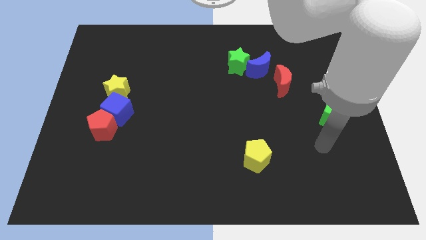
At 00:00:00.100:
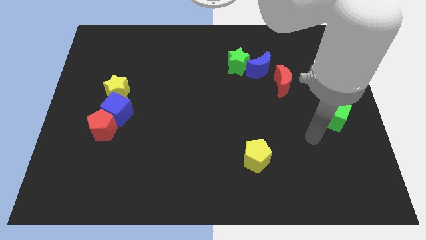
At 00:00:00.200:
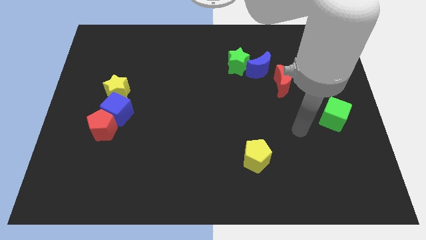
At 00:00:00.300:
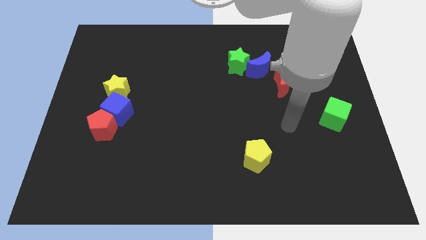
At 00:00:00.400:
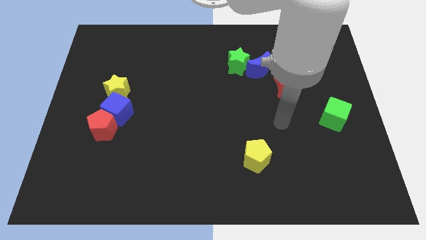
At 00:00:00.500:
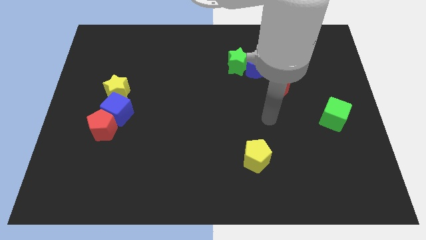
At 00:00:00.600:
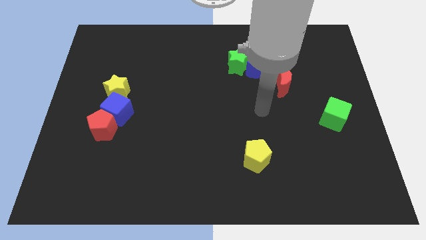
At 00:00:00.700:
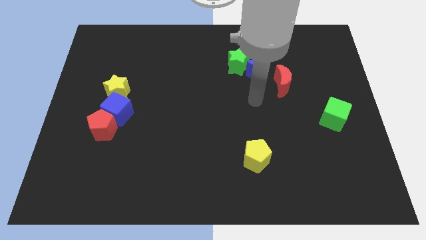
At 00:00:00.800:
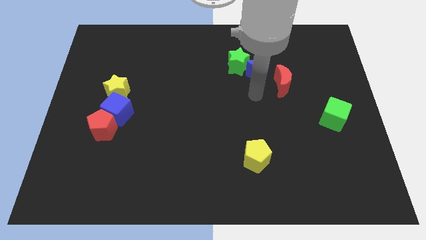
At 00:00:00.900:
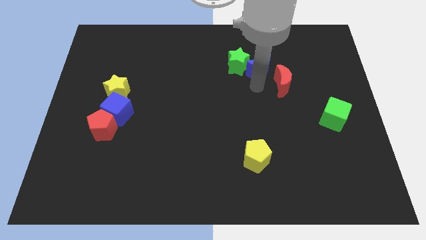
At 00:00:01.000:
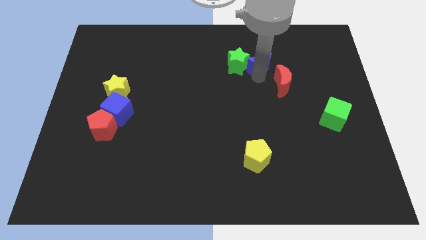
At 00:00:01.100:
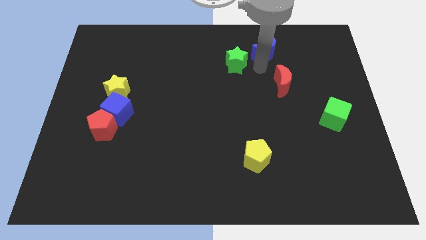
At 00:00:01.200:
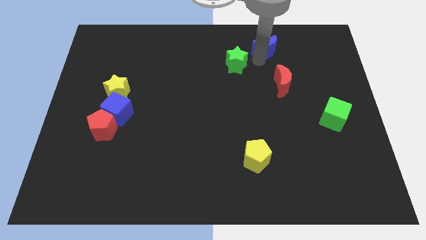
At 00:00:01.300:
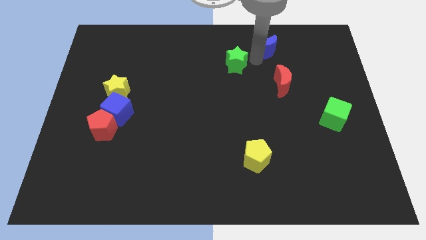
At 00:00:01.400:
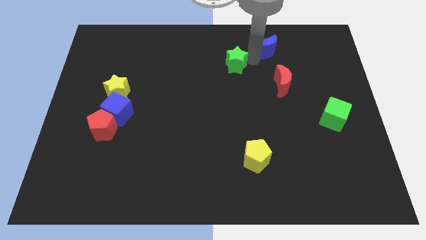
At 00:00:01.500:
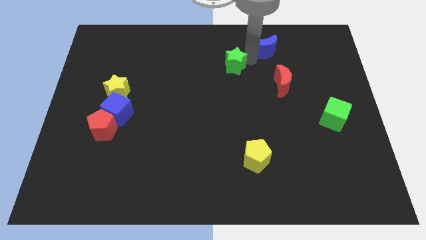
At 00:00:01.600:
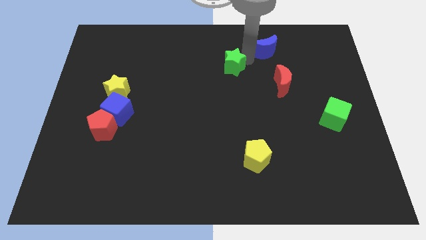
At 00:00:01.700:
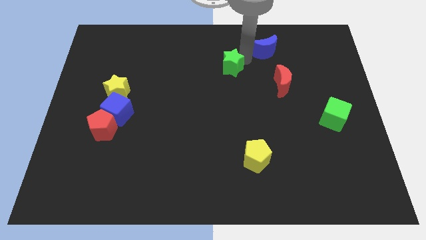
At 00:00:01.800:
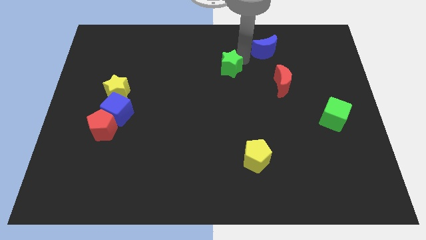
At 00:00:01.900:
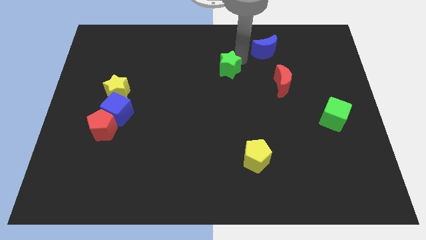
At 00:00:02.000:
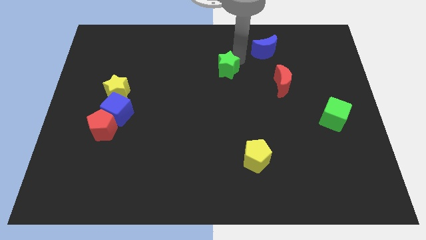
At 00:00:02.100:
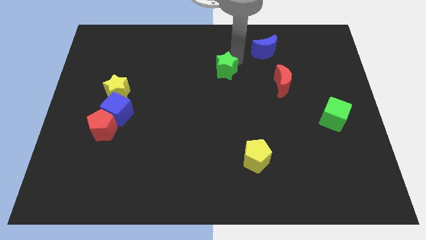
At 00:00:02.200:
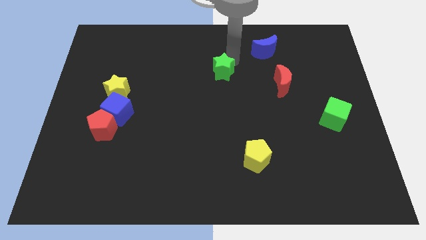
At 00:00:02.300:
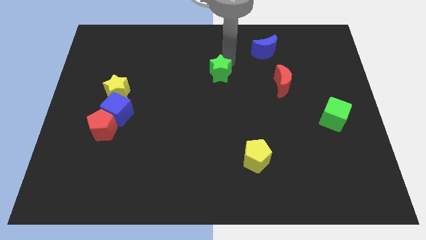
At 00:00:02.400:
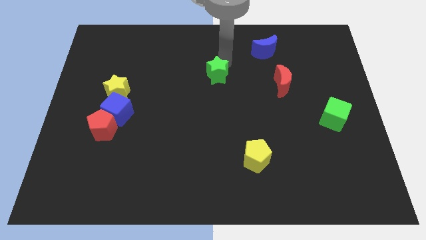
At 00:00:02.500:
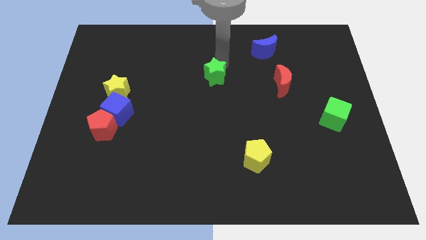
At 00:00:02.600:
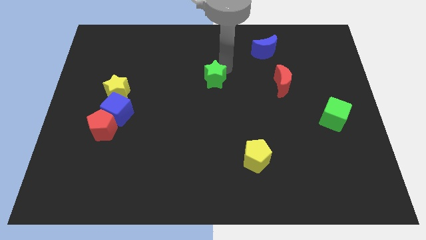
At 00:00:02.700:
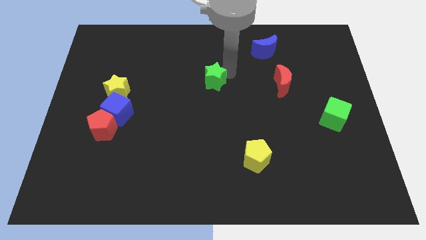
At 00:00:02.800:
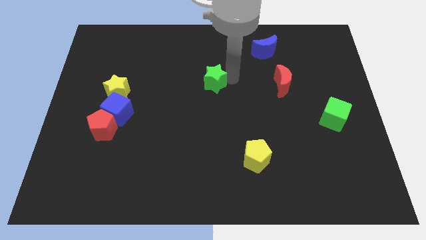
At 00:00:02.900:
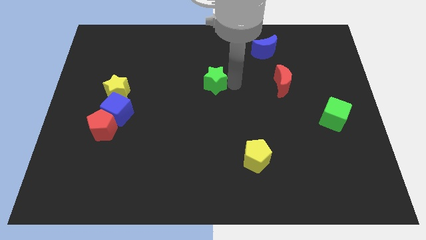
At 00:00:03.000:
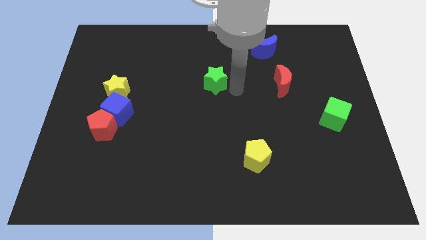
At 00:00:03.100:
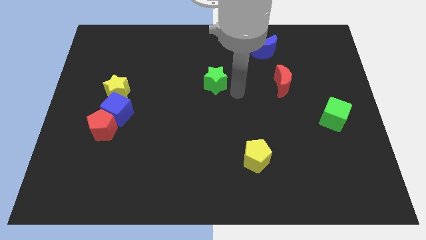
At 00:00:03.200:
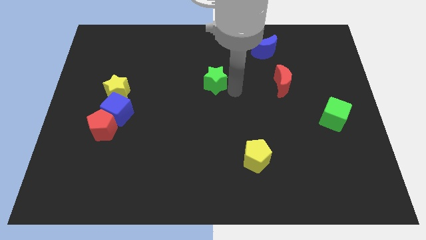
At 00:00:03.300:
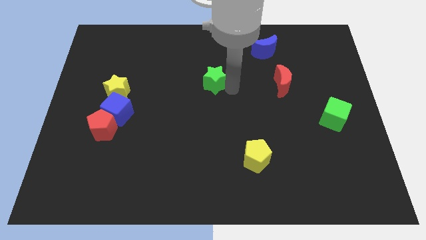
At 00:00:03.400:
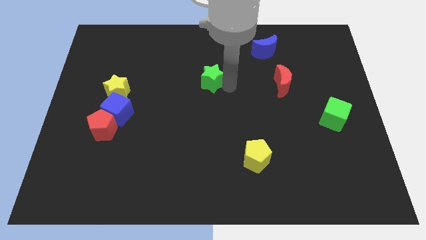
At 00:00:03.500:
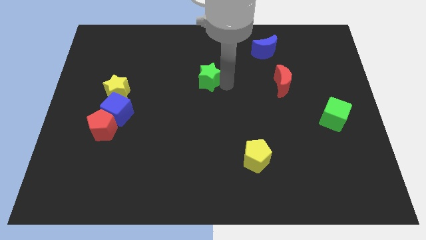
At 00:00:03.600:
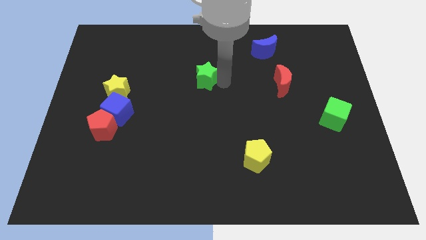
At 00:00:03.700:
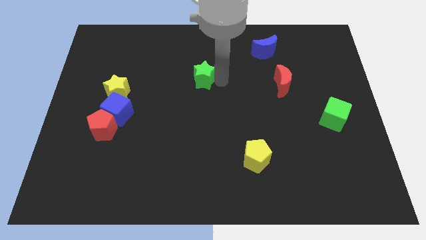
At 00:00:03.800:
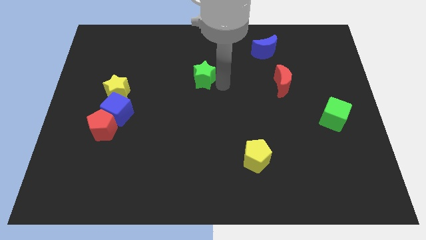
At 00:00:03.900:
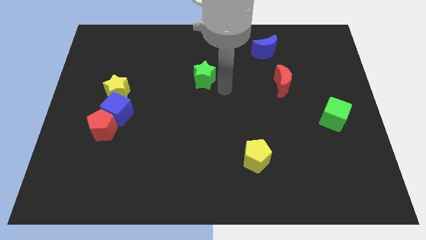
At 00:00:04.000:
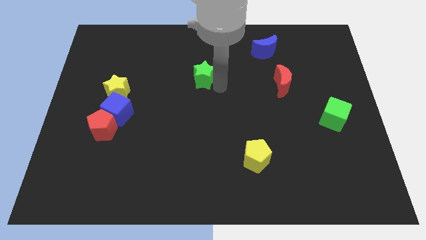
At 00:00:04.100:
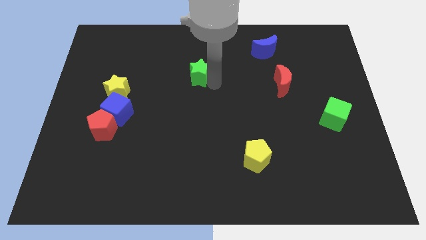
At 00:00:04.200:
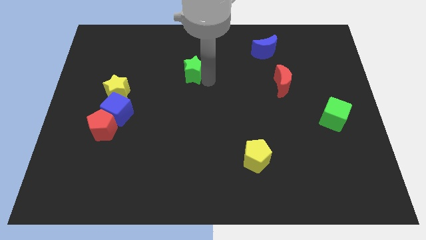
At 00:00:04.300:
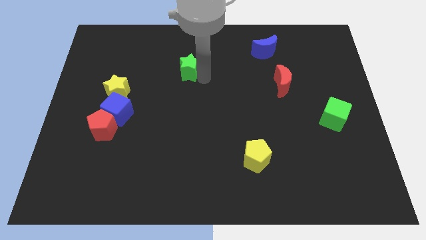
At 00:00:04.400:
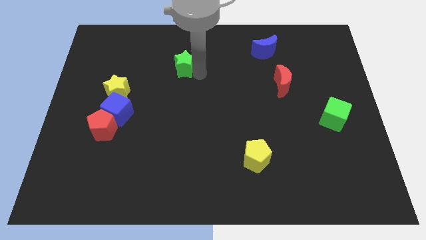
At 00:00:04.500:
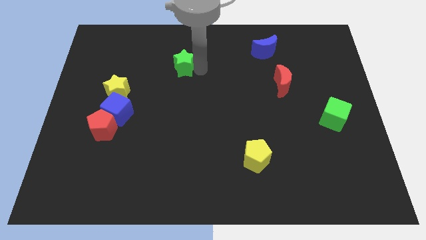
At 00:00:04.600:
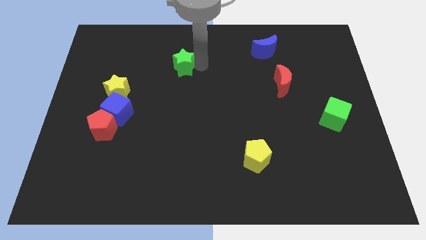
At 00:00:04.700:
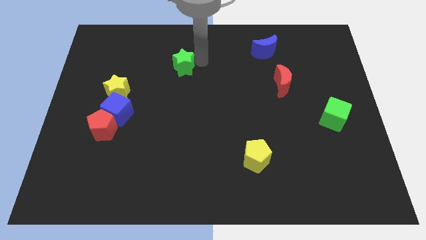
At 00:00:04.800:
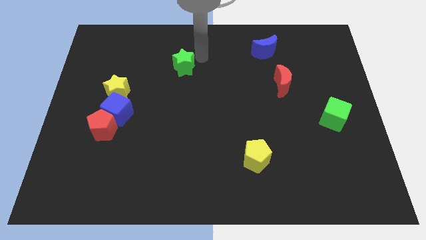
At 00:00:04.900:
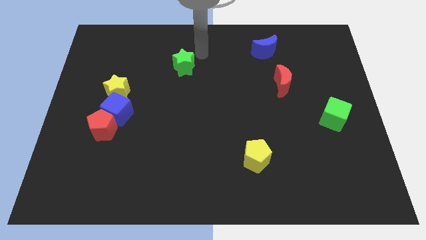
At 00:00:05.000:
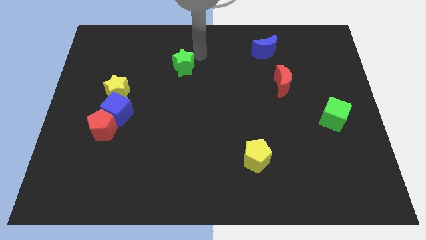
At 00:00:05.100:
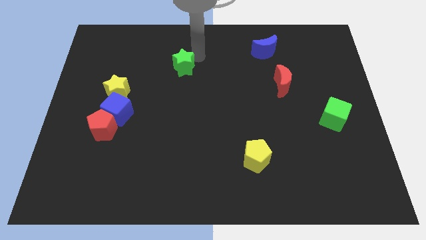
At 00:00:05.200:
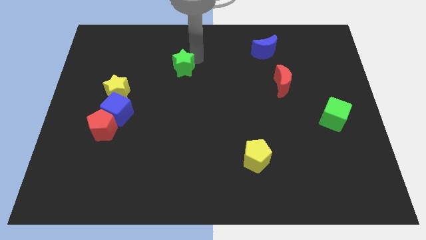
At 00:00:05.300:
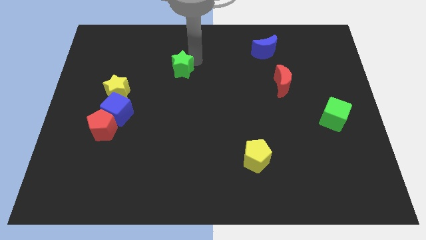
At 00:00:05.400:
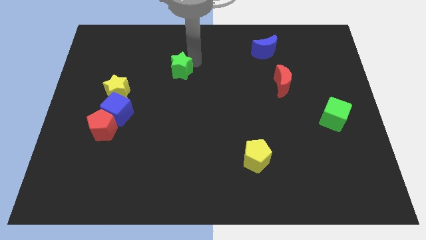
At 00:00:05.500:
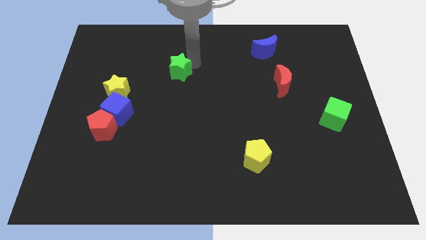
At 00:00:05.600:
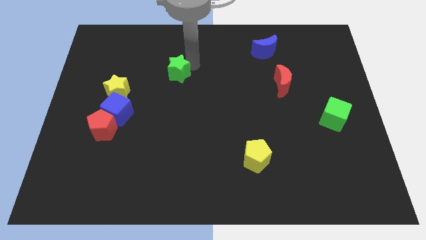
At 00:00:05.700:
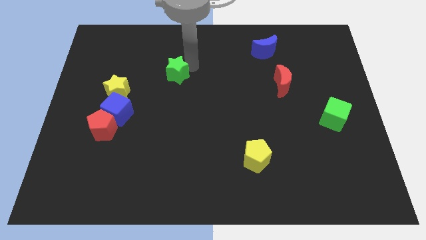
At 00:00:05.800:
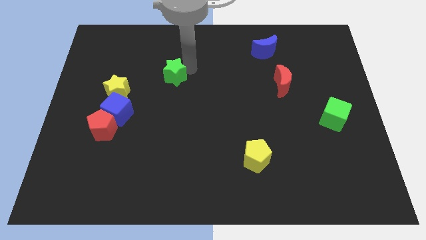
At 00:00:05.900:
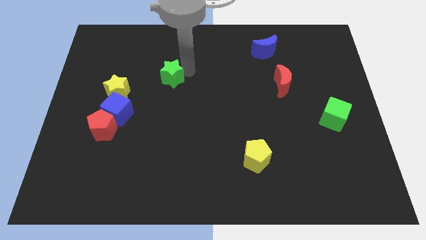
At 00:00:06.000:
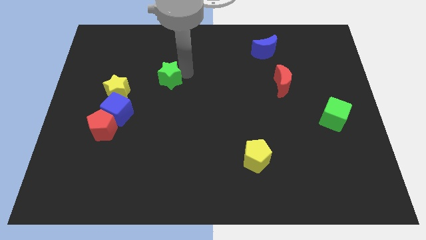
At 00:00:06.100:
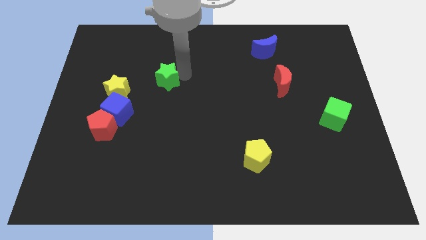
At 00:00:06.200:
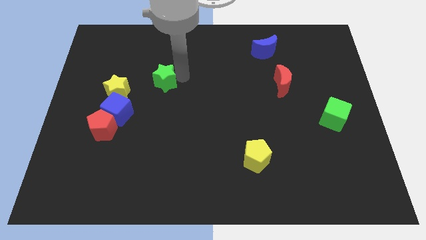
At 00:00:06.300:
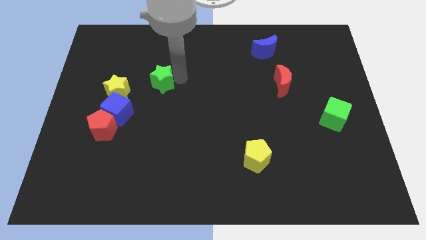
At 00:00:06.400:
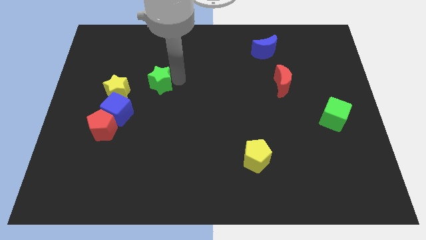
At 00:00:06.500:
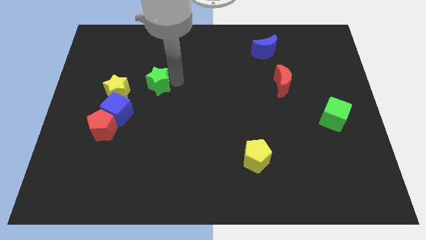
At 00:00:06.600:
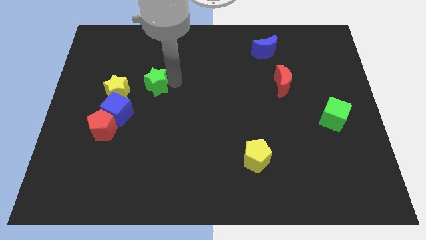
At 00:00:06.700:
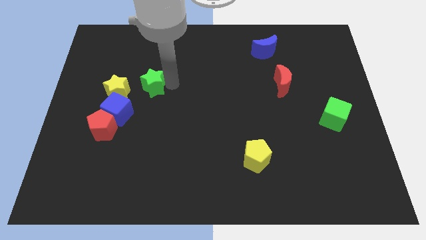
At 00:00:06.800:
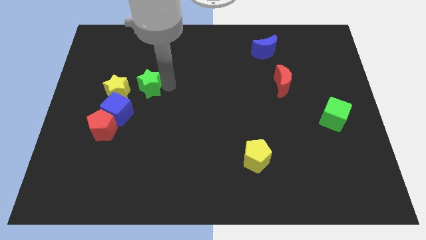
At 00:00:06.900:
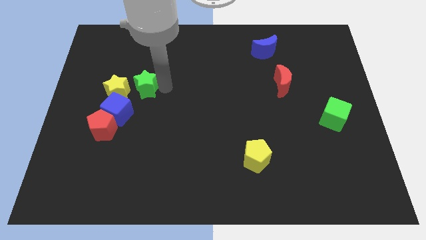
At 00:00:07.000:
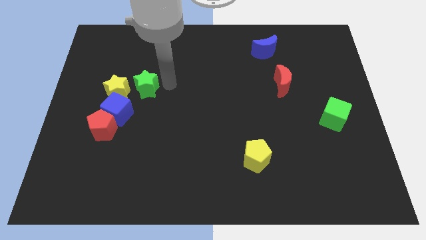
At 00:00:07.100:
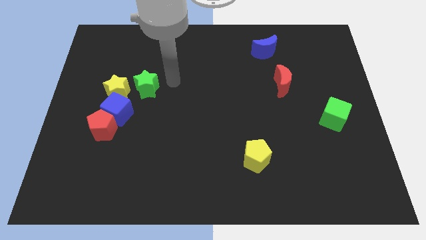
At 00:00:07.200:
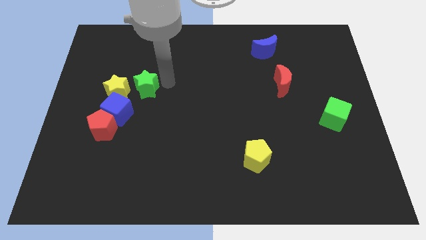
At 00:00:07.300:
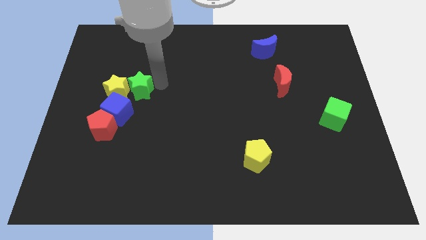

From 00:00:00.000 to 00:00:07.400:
slide the green star next to the yellow star

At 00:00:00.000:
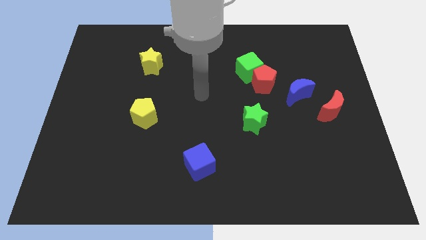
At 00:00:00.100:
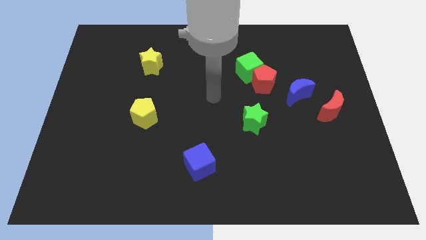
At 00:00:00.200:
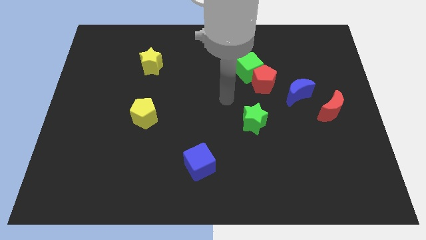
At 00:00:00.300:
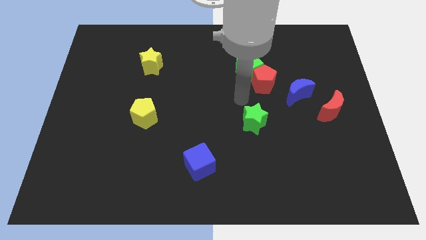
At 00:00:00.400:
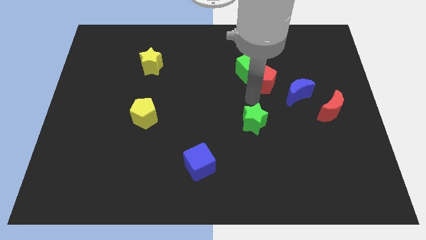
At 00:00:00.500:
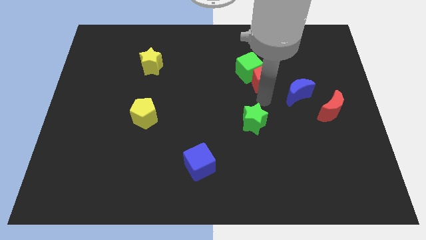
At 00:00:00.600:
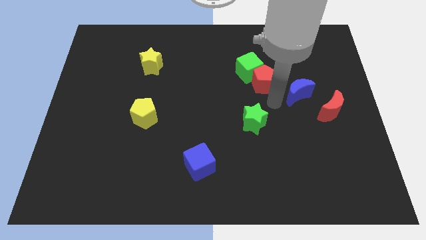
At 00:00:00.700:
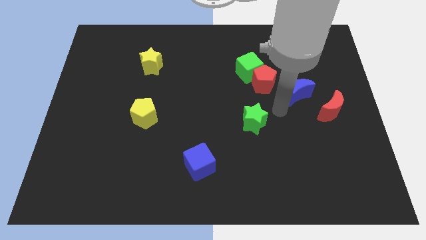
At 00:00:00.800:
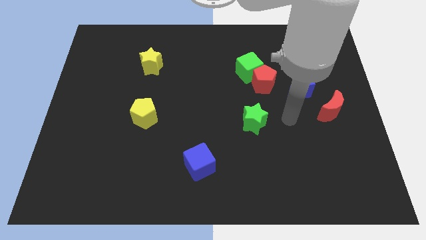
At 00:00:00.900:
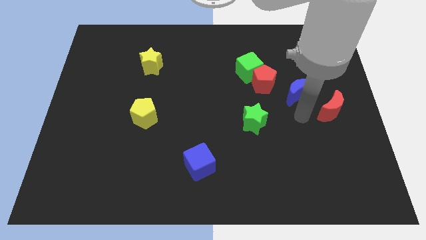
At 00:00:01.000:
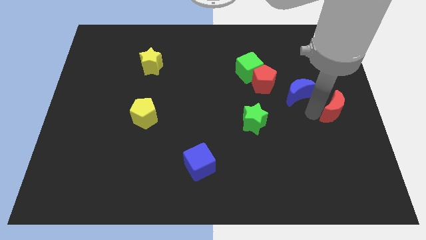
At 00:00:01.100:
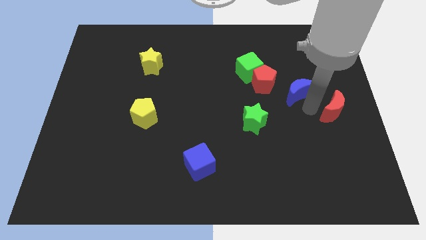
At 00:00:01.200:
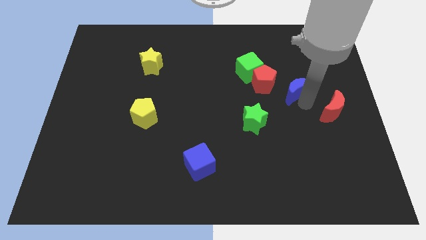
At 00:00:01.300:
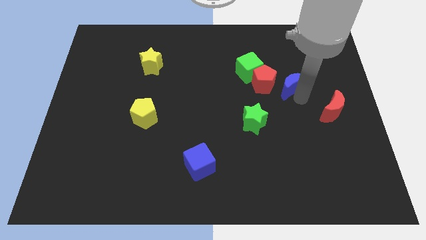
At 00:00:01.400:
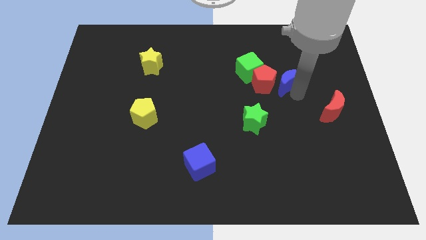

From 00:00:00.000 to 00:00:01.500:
slide the blue moon towards the red pentagon
